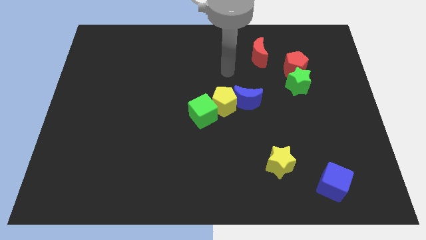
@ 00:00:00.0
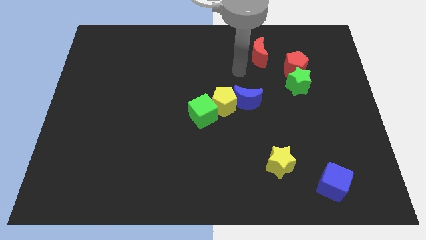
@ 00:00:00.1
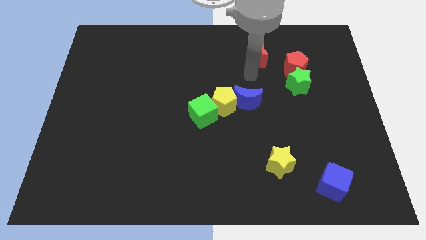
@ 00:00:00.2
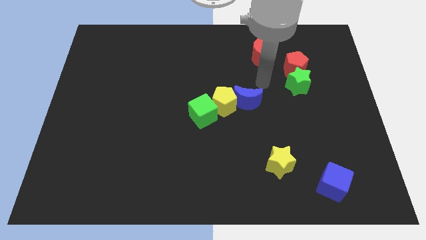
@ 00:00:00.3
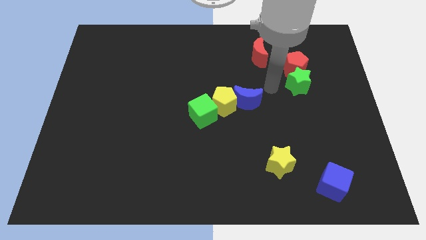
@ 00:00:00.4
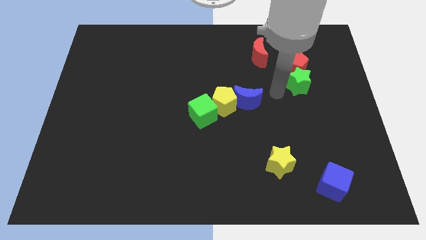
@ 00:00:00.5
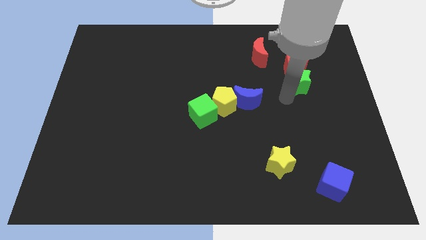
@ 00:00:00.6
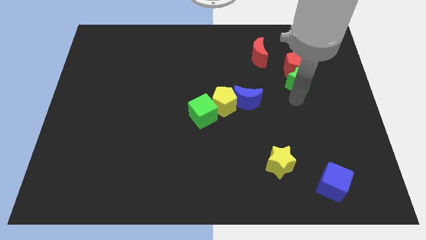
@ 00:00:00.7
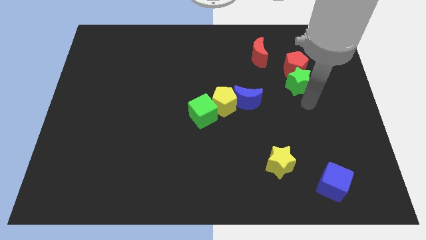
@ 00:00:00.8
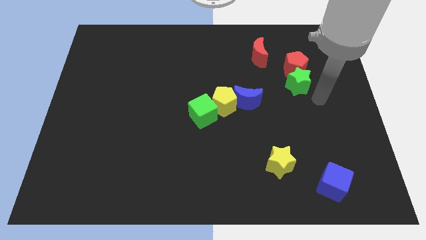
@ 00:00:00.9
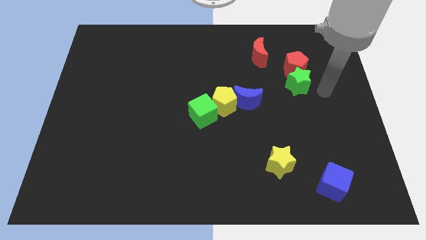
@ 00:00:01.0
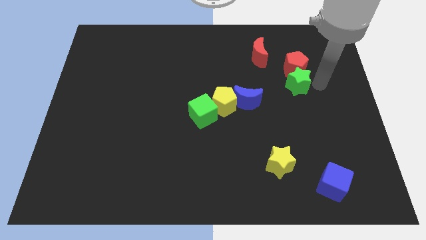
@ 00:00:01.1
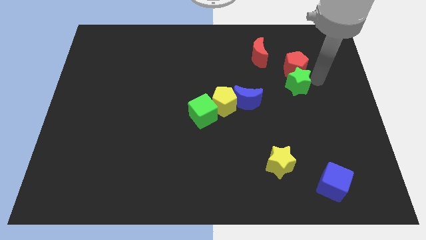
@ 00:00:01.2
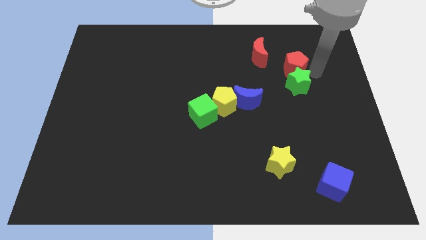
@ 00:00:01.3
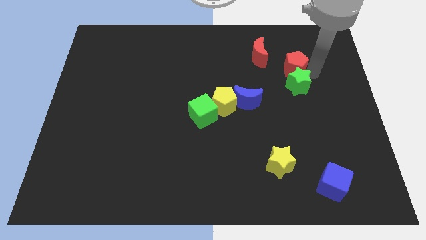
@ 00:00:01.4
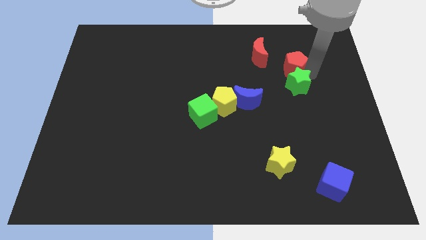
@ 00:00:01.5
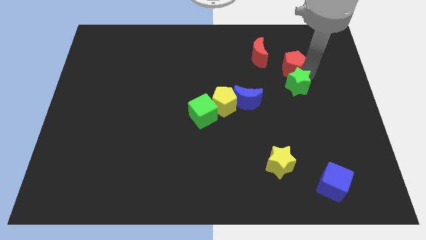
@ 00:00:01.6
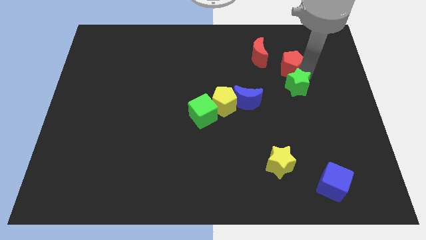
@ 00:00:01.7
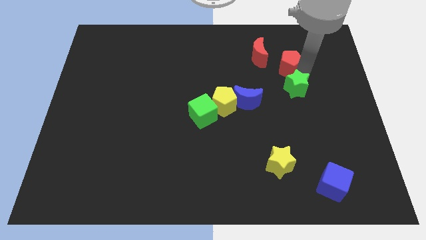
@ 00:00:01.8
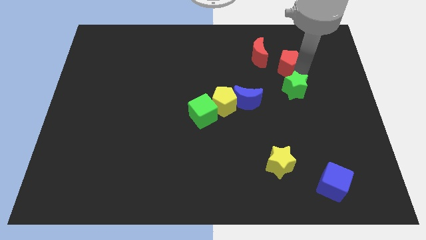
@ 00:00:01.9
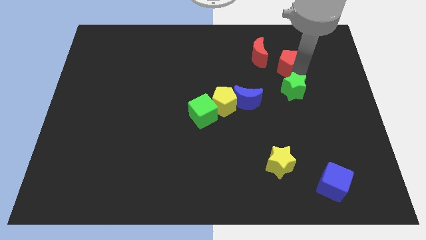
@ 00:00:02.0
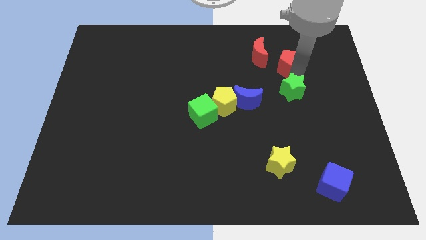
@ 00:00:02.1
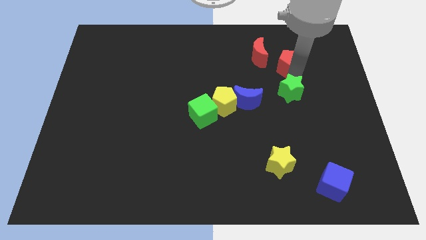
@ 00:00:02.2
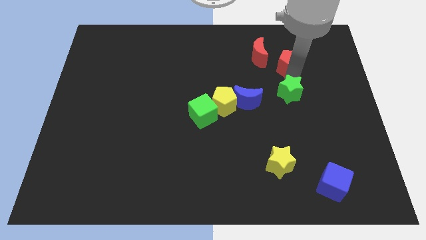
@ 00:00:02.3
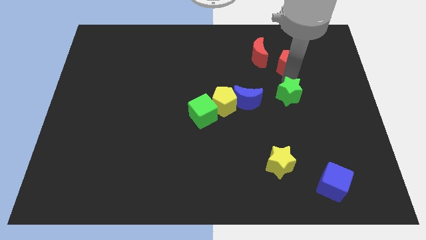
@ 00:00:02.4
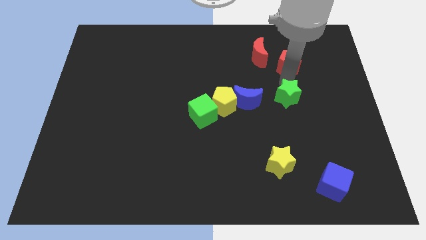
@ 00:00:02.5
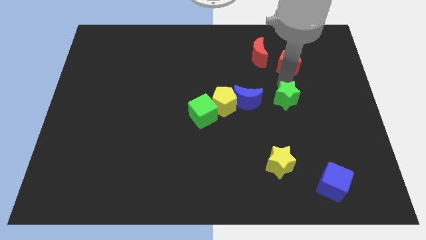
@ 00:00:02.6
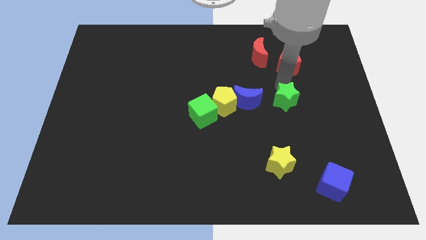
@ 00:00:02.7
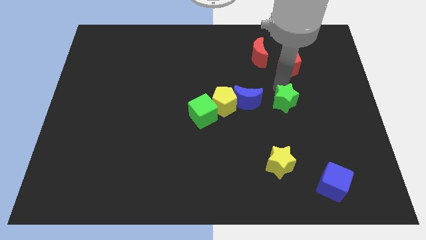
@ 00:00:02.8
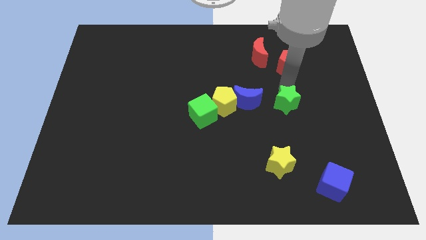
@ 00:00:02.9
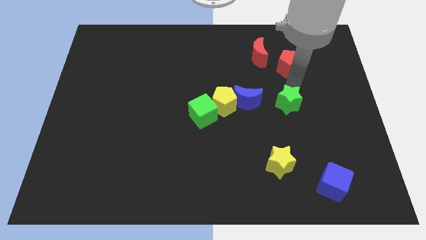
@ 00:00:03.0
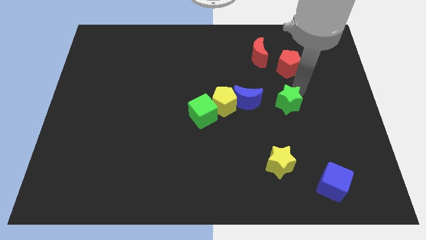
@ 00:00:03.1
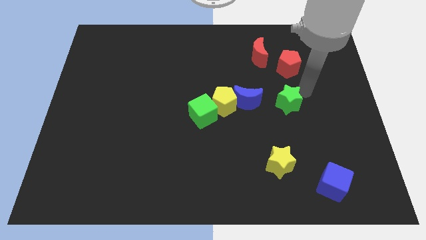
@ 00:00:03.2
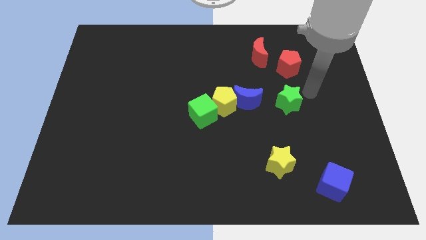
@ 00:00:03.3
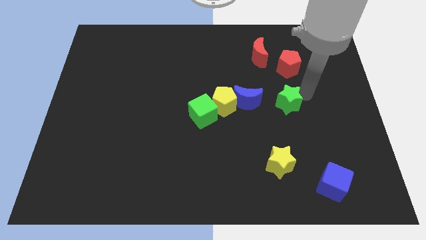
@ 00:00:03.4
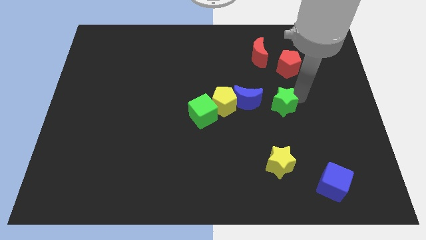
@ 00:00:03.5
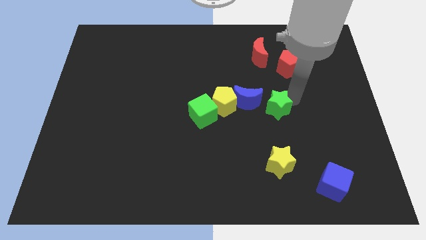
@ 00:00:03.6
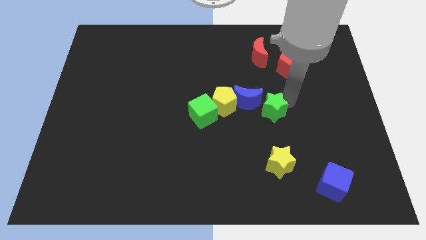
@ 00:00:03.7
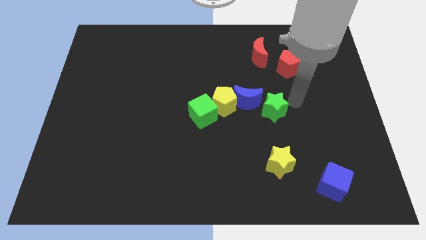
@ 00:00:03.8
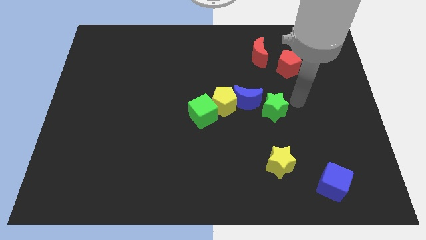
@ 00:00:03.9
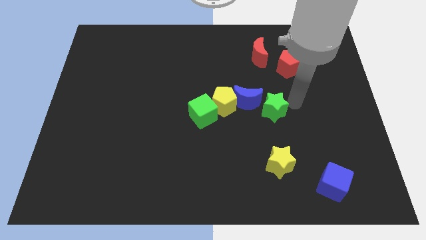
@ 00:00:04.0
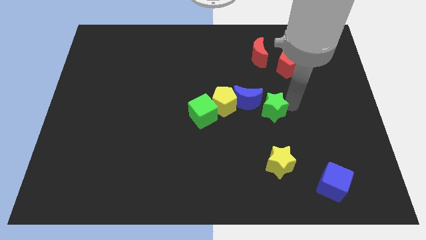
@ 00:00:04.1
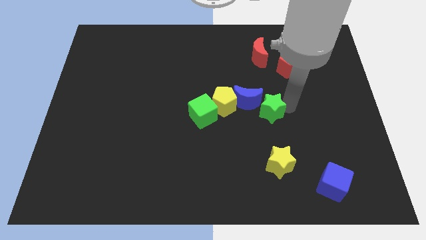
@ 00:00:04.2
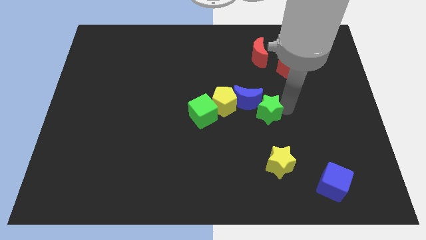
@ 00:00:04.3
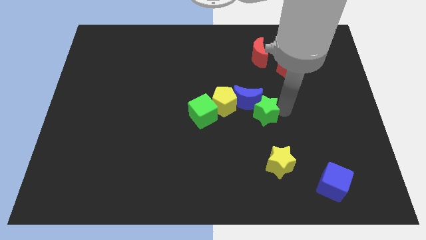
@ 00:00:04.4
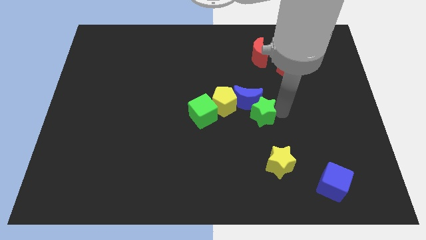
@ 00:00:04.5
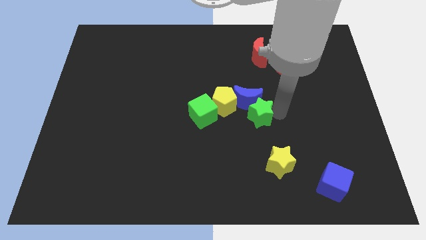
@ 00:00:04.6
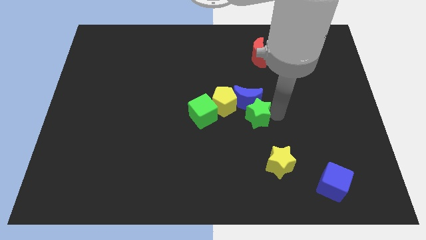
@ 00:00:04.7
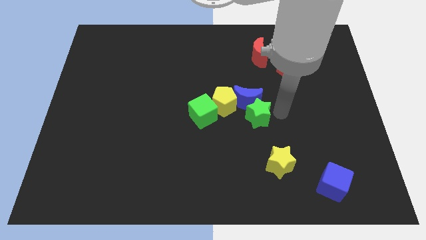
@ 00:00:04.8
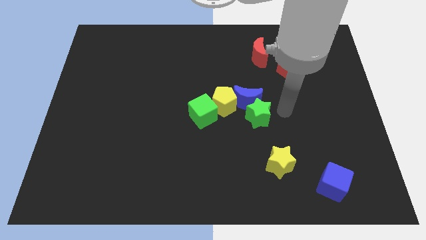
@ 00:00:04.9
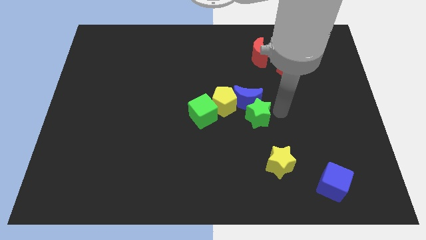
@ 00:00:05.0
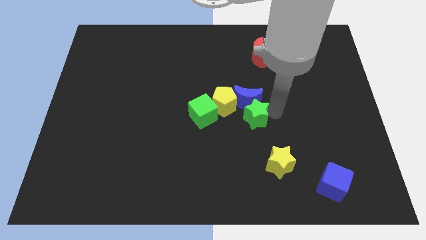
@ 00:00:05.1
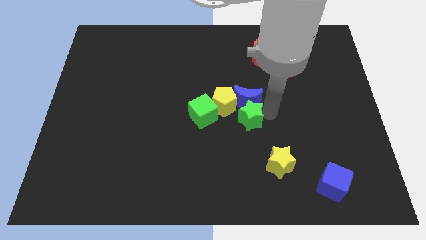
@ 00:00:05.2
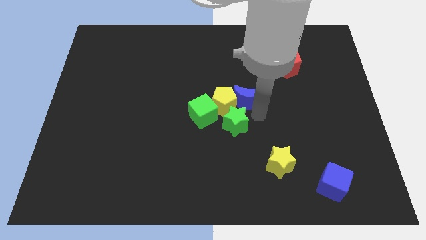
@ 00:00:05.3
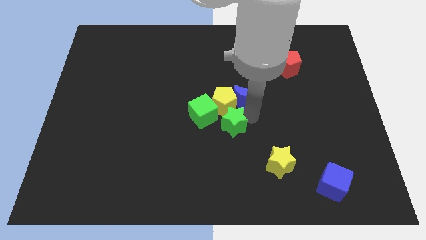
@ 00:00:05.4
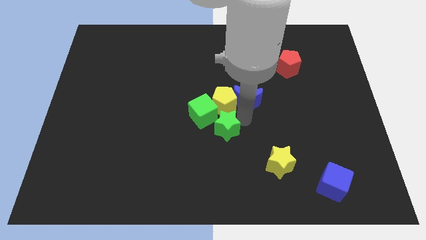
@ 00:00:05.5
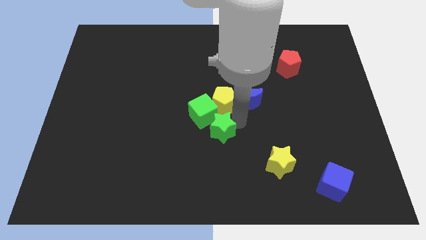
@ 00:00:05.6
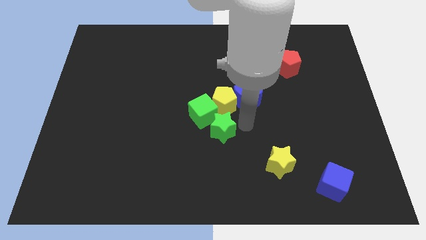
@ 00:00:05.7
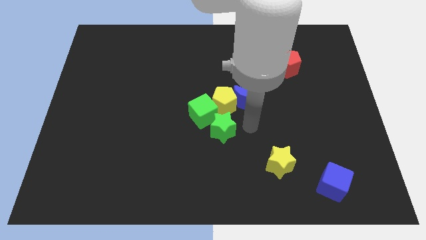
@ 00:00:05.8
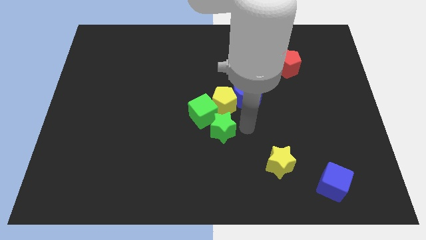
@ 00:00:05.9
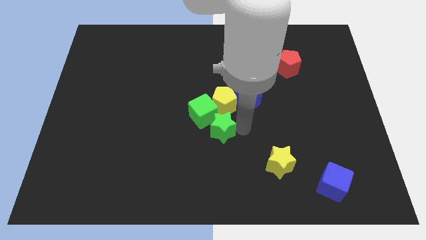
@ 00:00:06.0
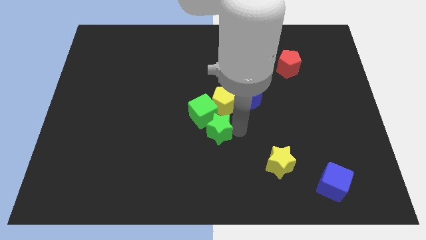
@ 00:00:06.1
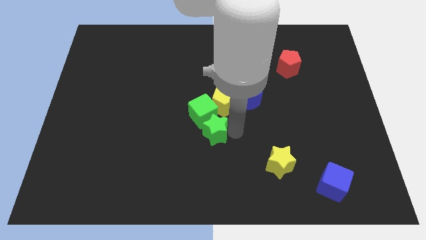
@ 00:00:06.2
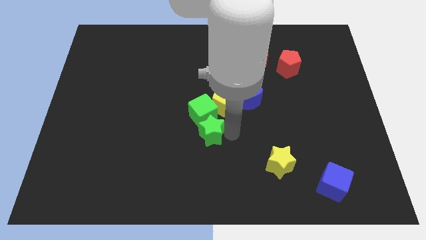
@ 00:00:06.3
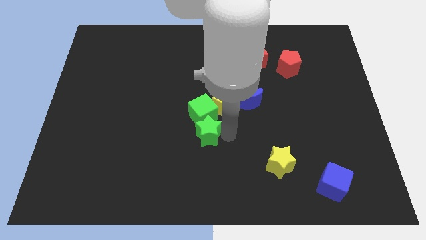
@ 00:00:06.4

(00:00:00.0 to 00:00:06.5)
put the green star to the bottom left side of the green cube

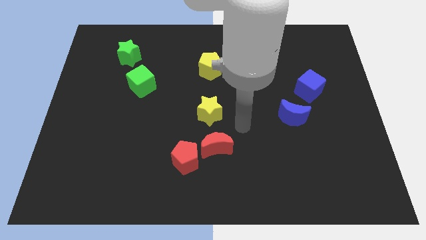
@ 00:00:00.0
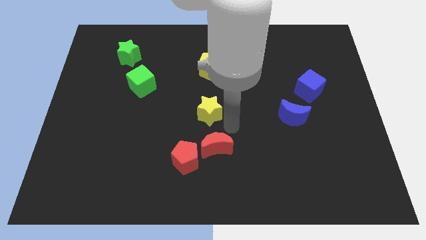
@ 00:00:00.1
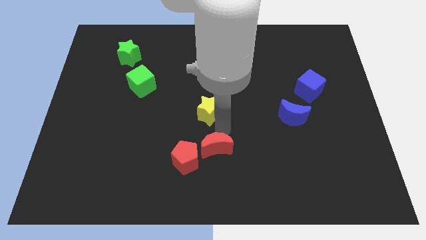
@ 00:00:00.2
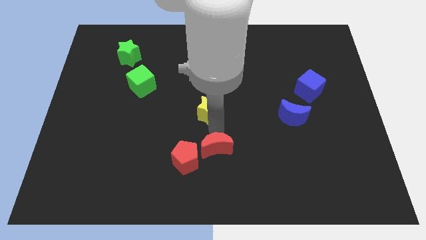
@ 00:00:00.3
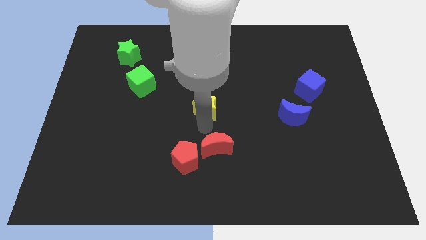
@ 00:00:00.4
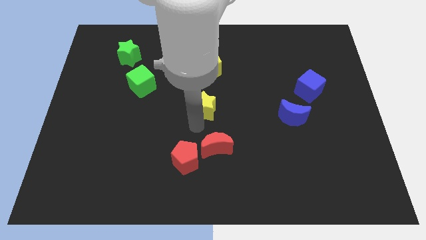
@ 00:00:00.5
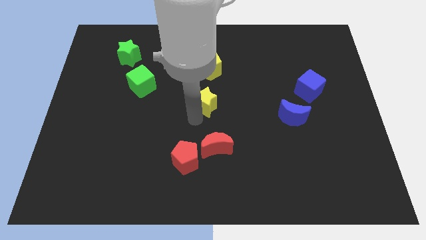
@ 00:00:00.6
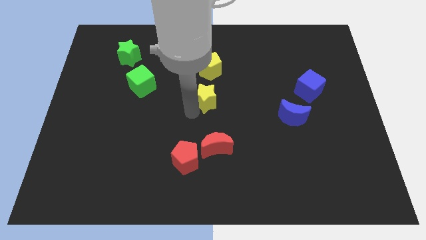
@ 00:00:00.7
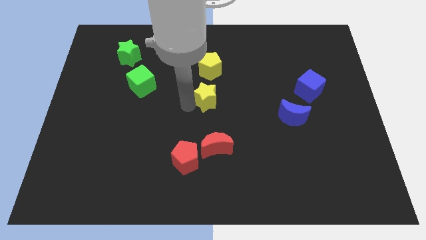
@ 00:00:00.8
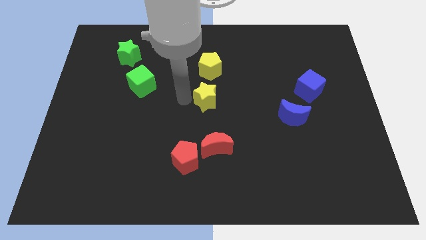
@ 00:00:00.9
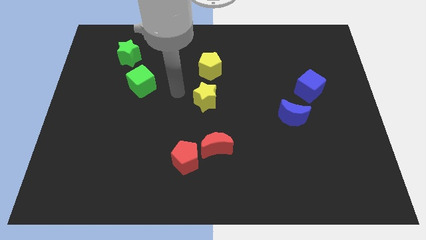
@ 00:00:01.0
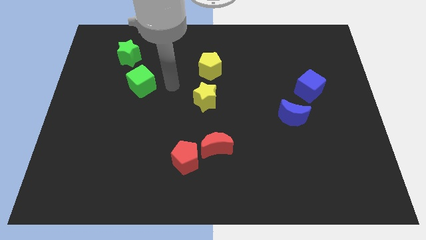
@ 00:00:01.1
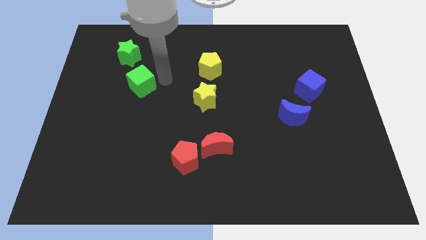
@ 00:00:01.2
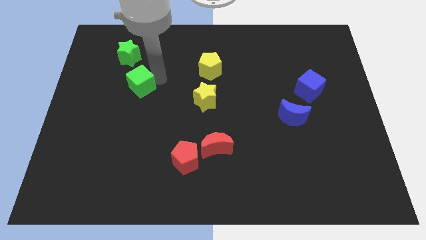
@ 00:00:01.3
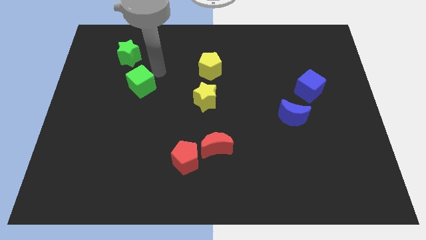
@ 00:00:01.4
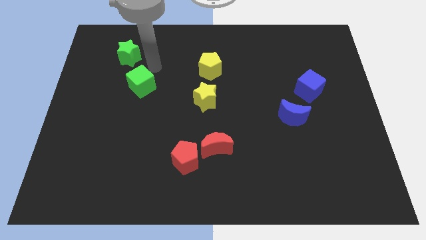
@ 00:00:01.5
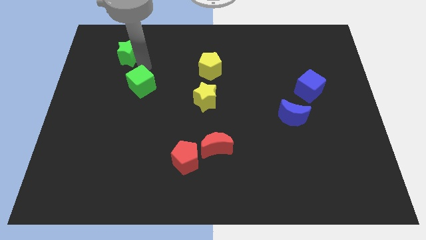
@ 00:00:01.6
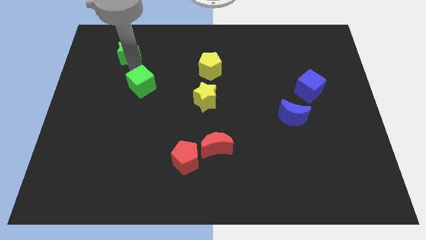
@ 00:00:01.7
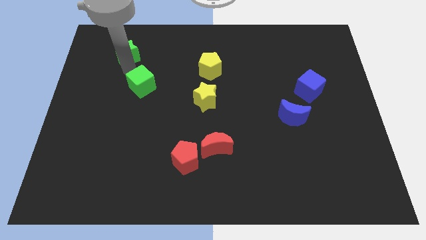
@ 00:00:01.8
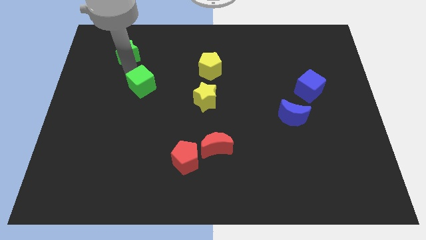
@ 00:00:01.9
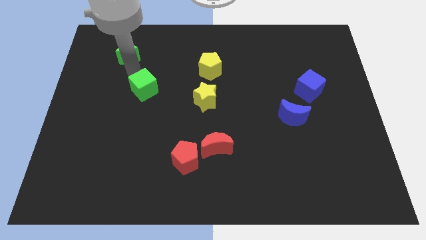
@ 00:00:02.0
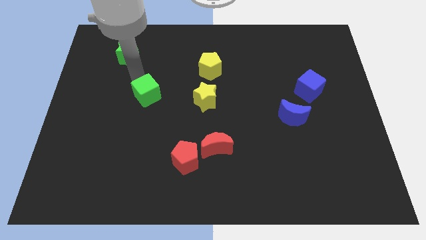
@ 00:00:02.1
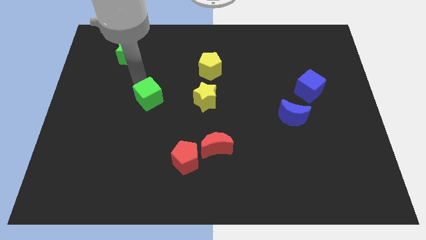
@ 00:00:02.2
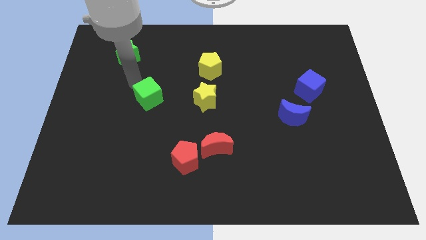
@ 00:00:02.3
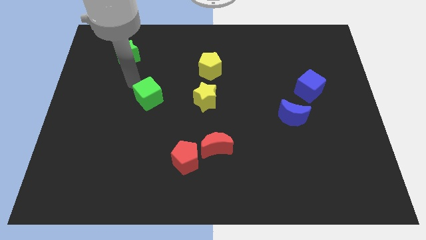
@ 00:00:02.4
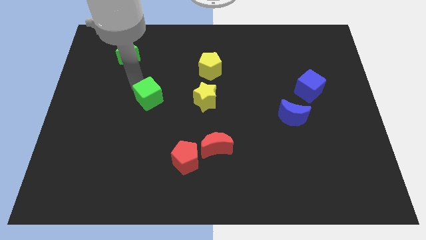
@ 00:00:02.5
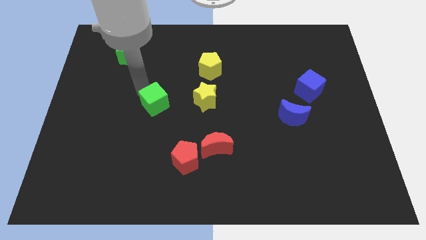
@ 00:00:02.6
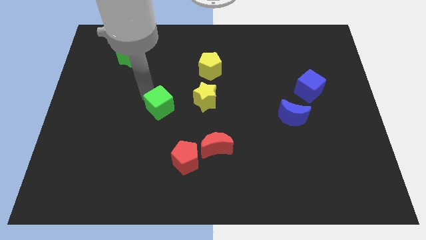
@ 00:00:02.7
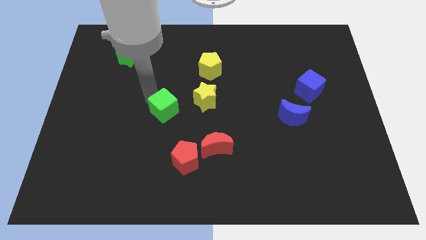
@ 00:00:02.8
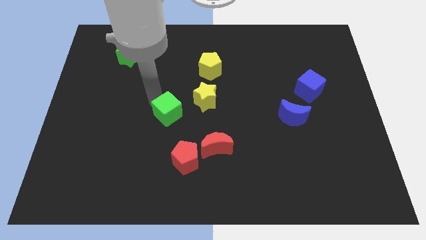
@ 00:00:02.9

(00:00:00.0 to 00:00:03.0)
push the green cube diagonally down and to the left of the yellow star
